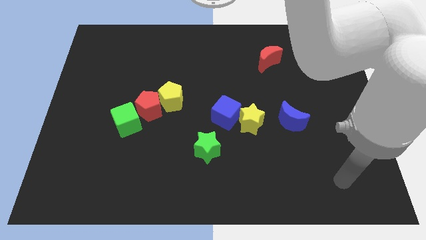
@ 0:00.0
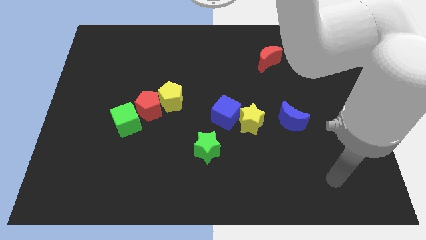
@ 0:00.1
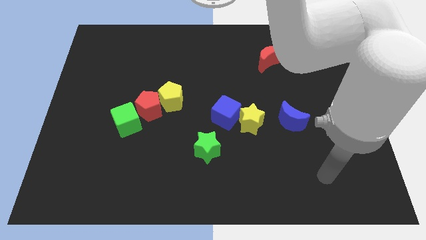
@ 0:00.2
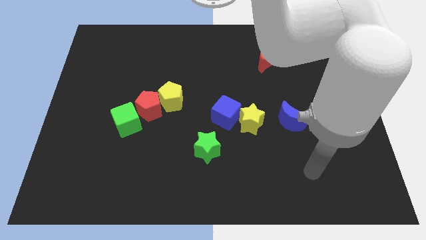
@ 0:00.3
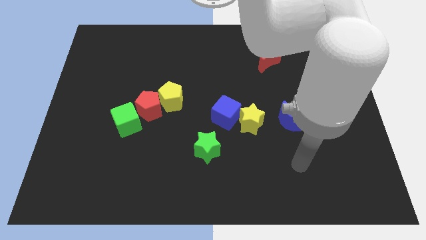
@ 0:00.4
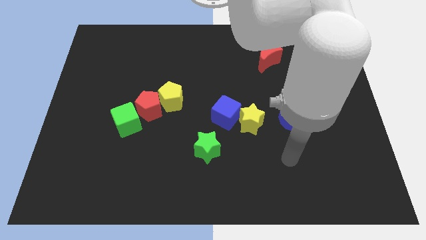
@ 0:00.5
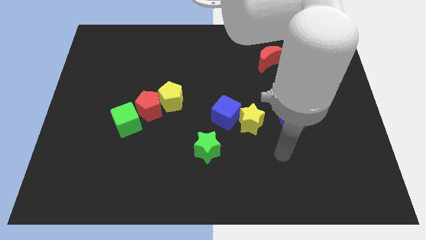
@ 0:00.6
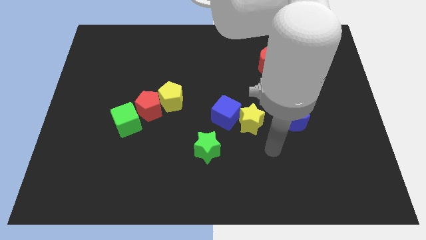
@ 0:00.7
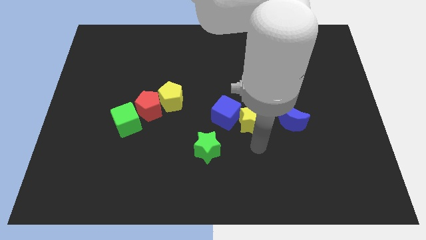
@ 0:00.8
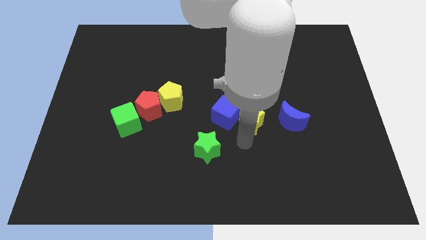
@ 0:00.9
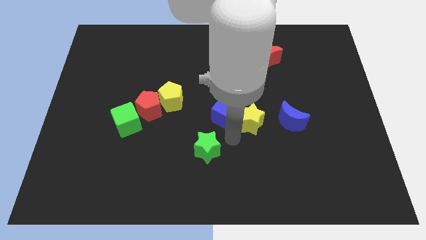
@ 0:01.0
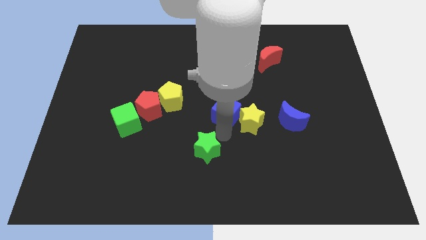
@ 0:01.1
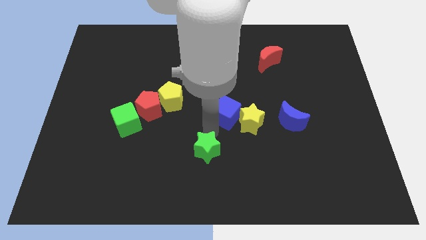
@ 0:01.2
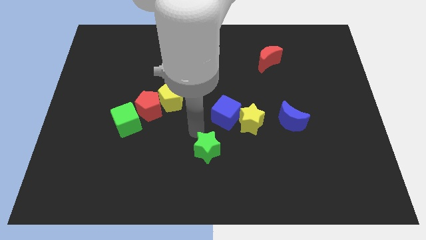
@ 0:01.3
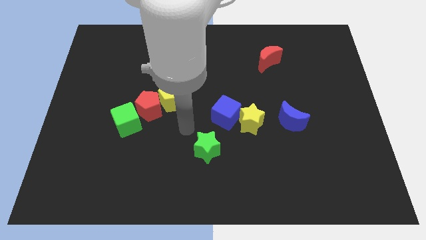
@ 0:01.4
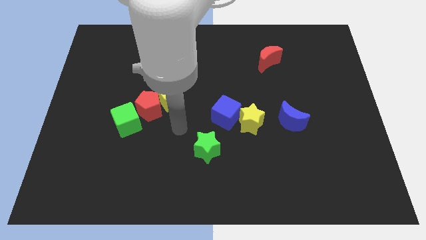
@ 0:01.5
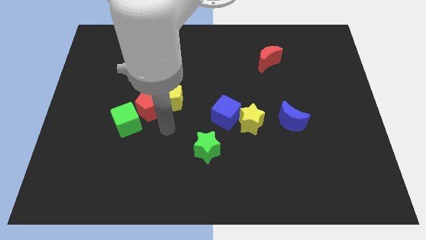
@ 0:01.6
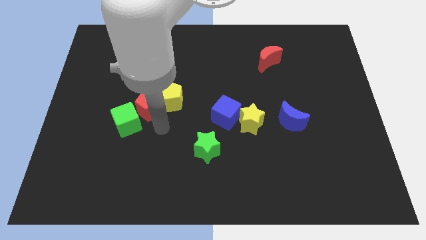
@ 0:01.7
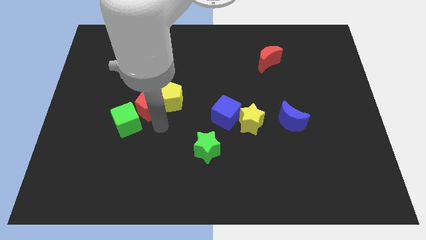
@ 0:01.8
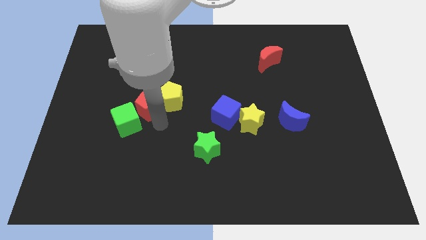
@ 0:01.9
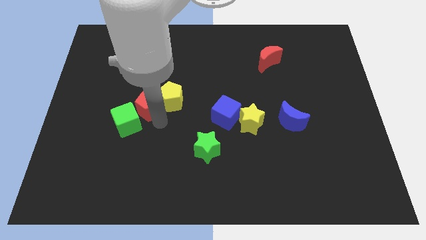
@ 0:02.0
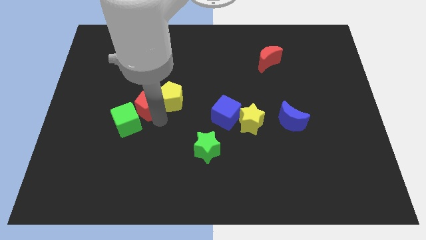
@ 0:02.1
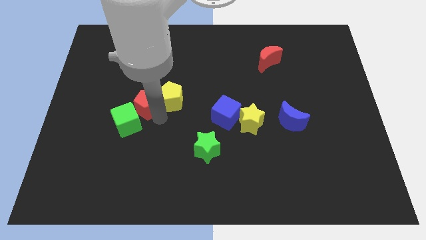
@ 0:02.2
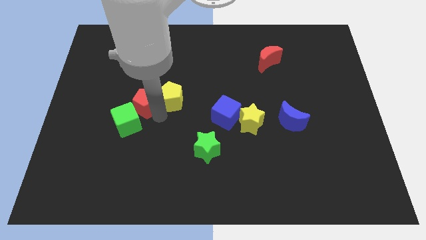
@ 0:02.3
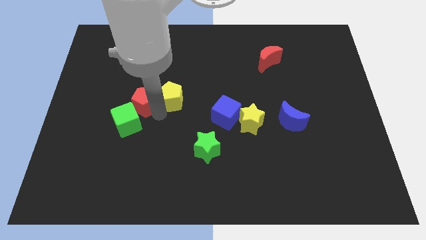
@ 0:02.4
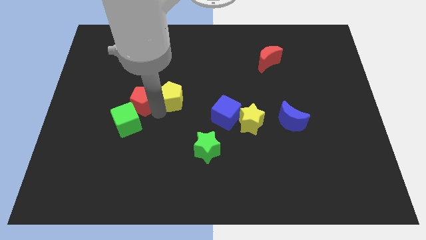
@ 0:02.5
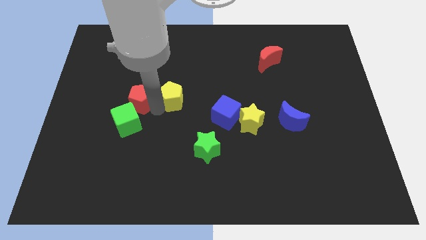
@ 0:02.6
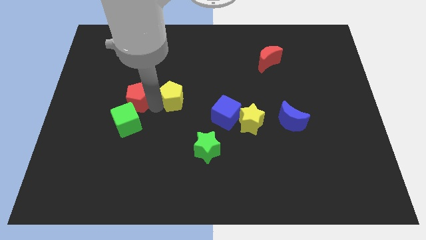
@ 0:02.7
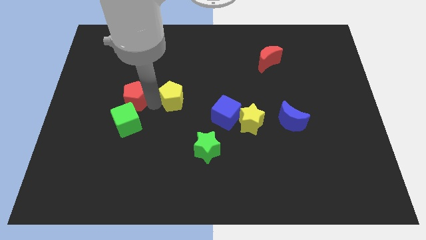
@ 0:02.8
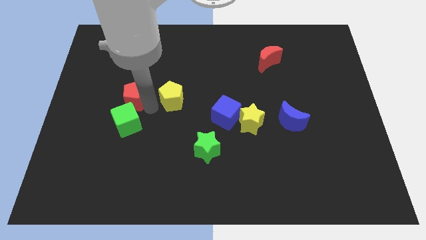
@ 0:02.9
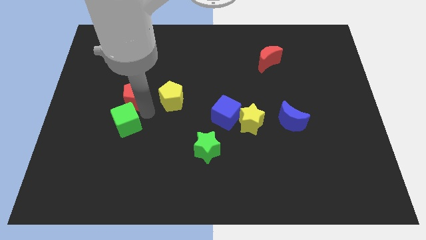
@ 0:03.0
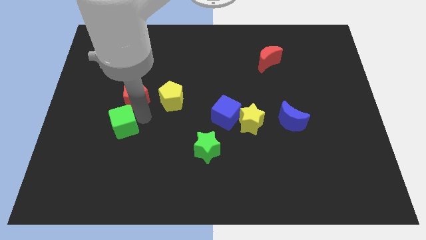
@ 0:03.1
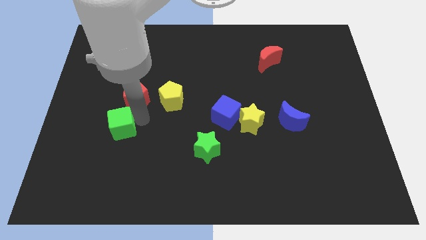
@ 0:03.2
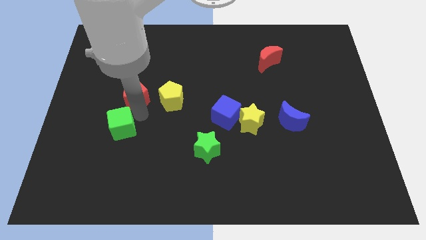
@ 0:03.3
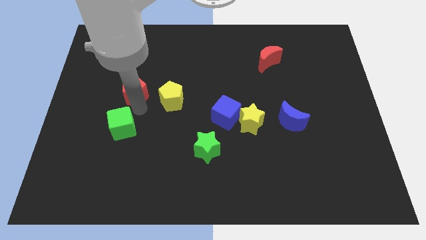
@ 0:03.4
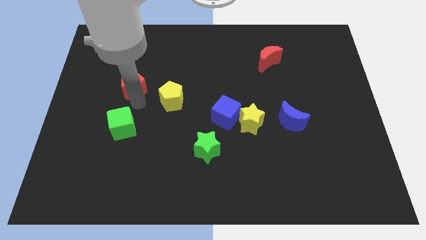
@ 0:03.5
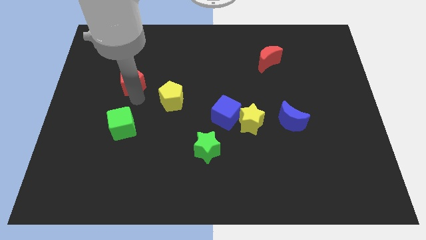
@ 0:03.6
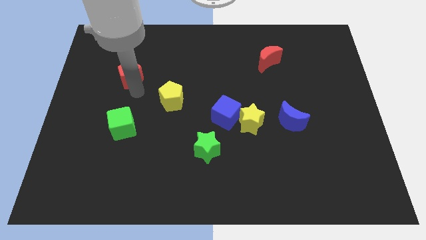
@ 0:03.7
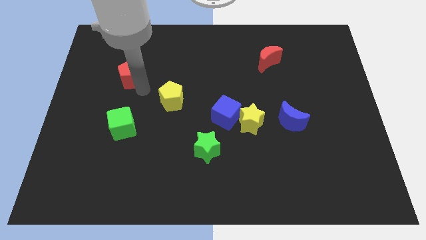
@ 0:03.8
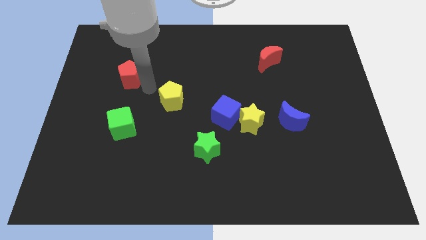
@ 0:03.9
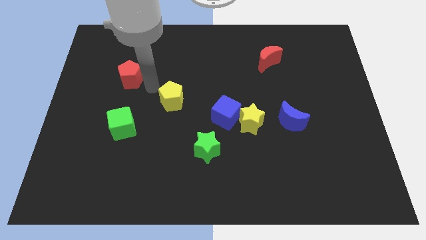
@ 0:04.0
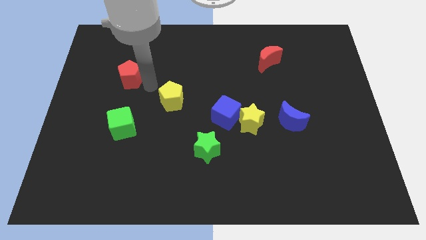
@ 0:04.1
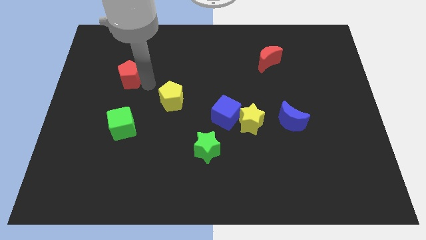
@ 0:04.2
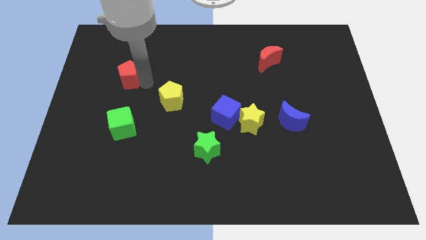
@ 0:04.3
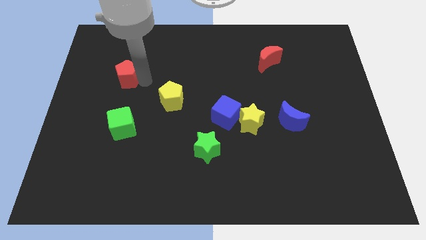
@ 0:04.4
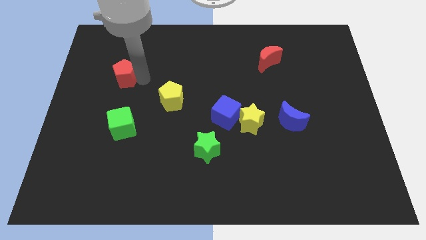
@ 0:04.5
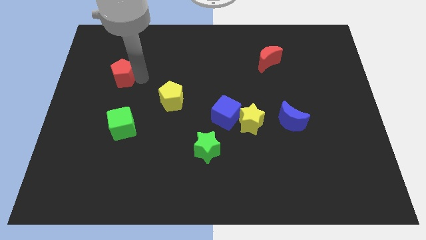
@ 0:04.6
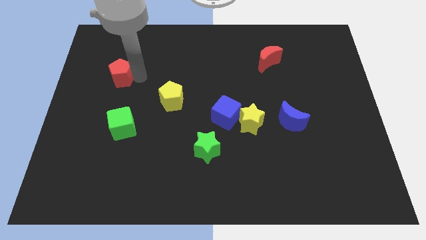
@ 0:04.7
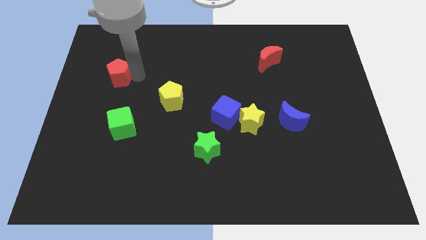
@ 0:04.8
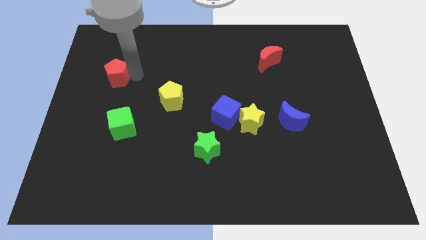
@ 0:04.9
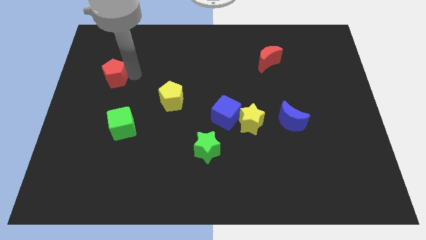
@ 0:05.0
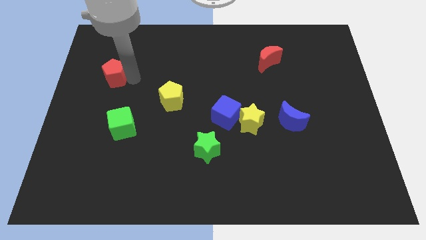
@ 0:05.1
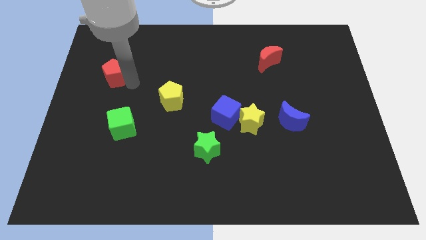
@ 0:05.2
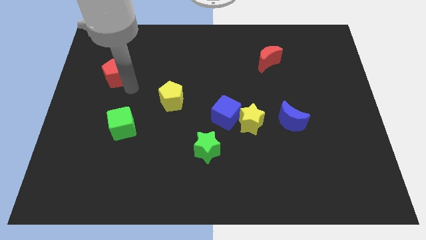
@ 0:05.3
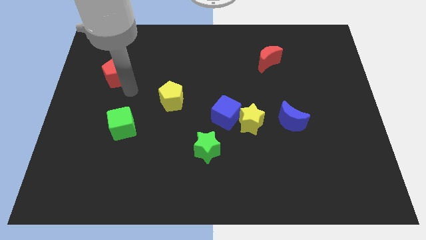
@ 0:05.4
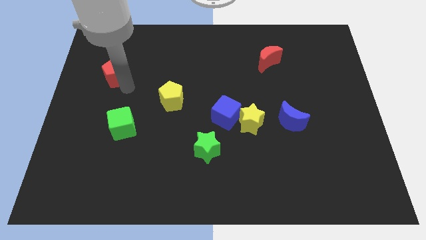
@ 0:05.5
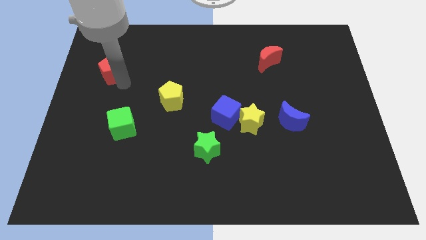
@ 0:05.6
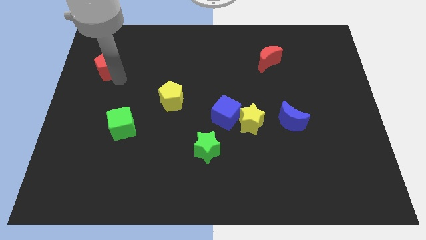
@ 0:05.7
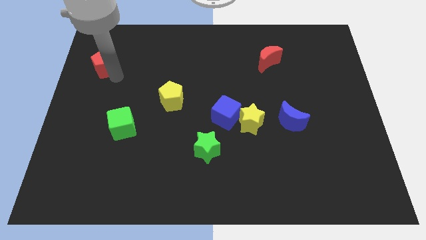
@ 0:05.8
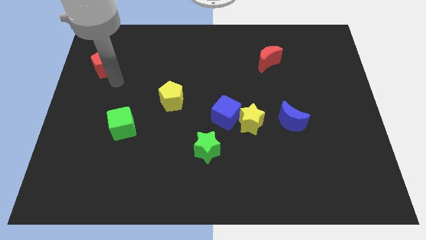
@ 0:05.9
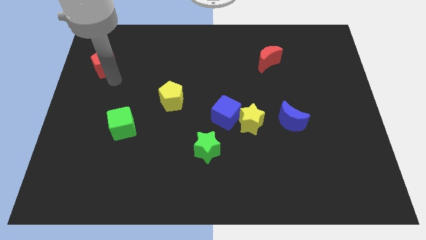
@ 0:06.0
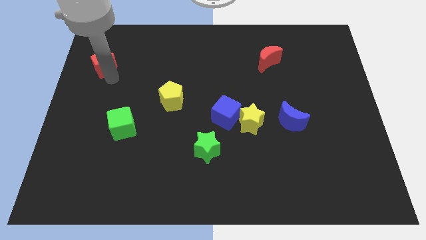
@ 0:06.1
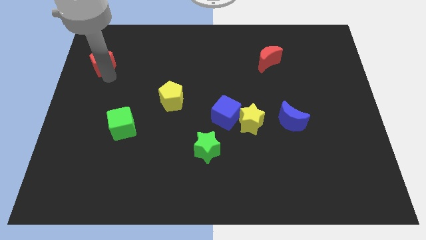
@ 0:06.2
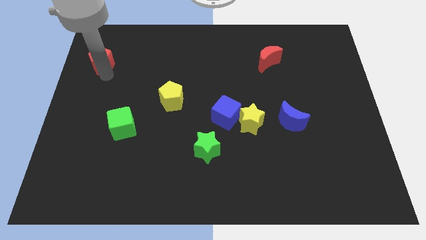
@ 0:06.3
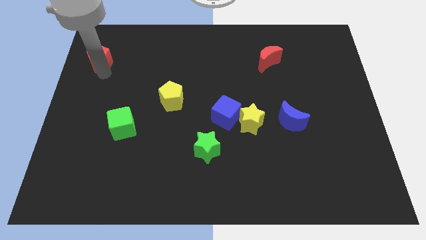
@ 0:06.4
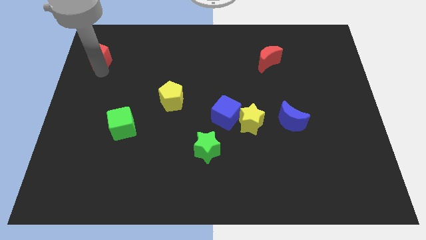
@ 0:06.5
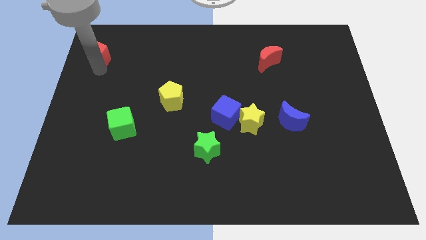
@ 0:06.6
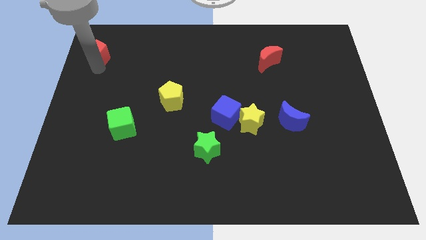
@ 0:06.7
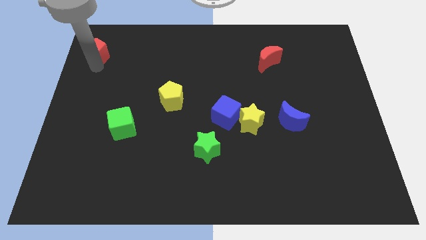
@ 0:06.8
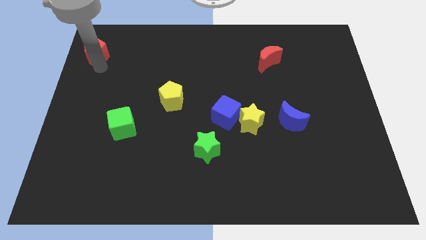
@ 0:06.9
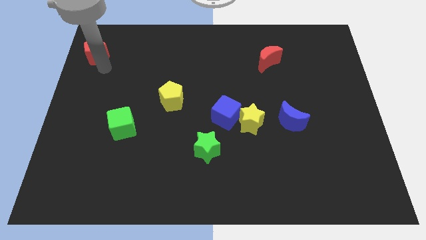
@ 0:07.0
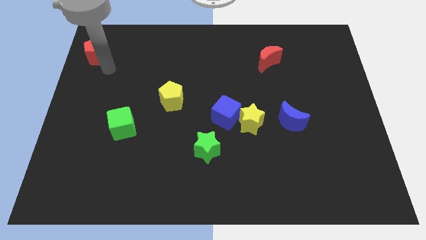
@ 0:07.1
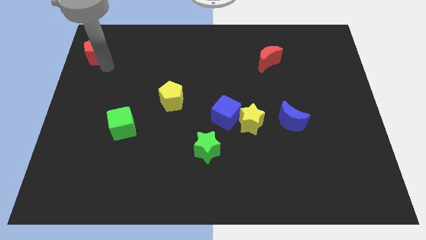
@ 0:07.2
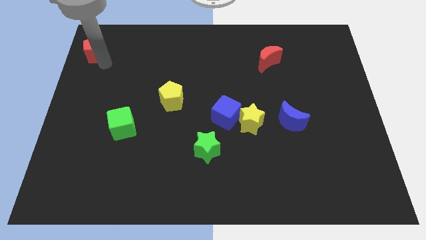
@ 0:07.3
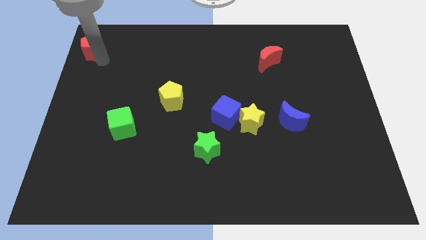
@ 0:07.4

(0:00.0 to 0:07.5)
put the red pentagon to the top left
